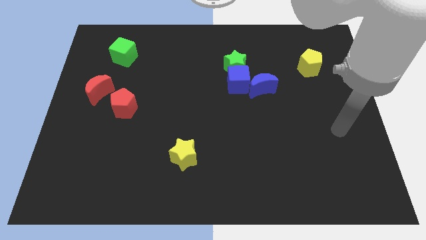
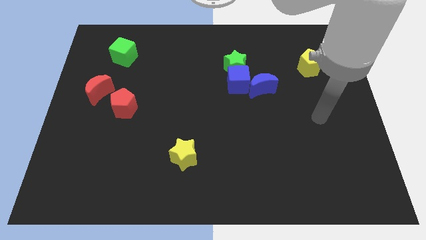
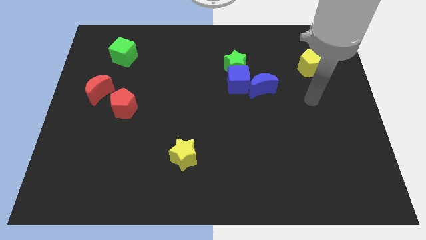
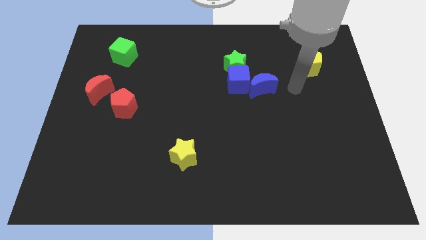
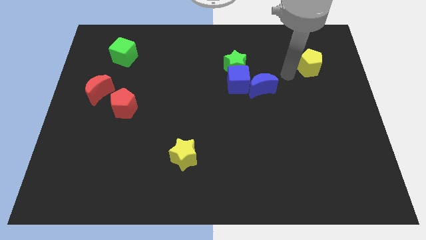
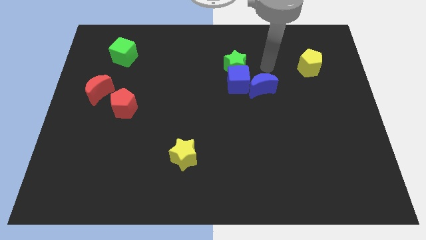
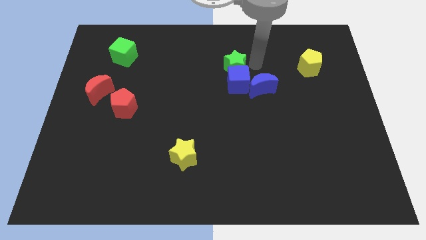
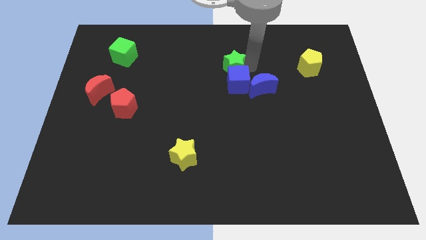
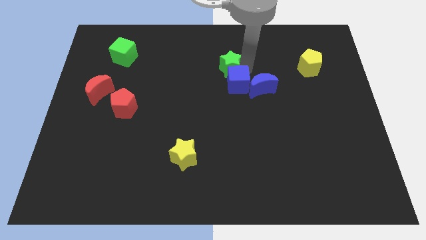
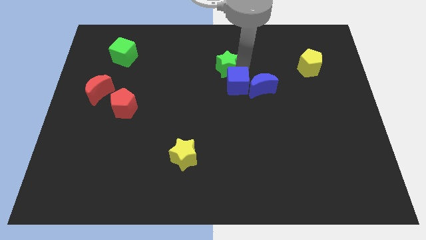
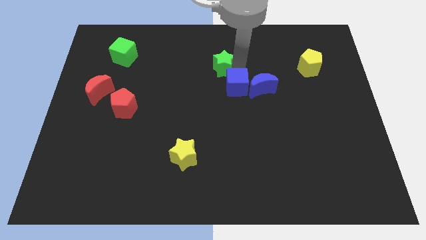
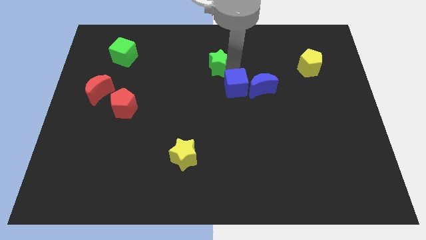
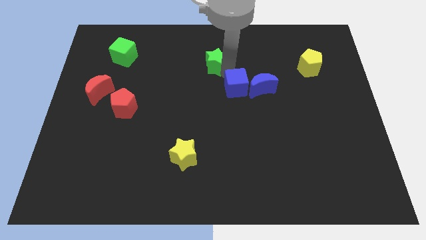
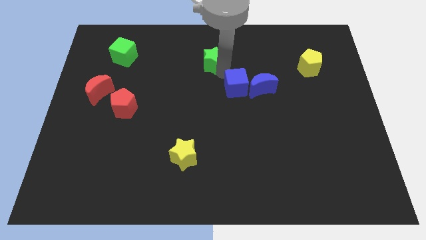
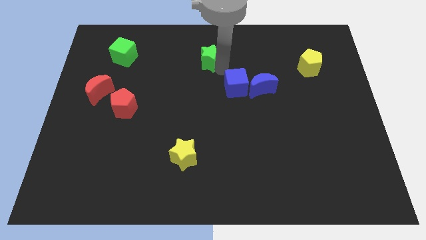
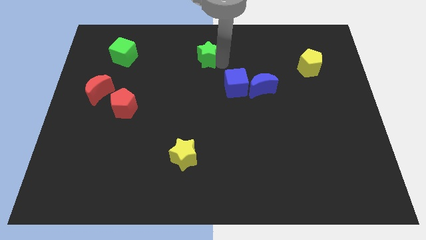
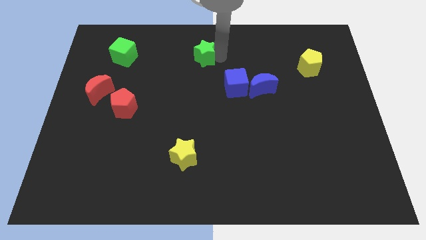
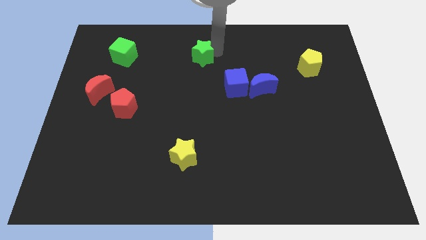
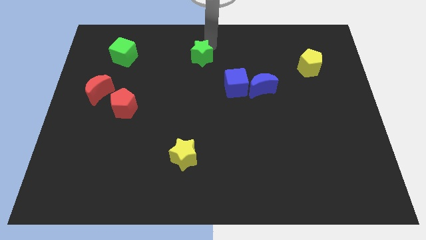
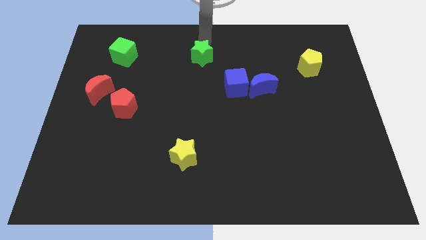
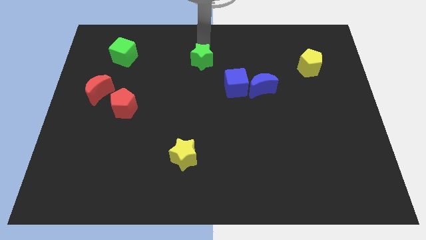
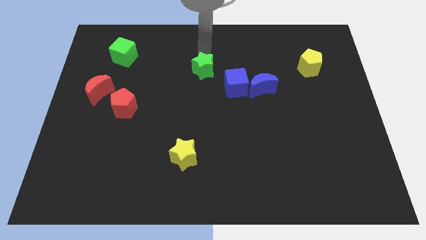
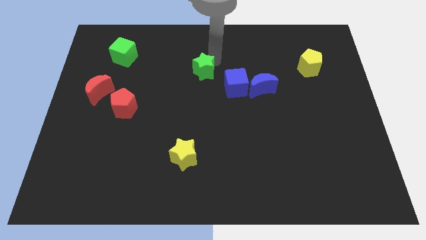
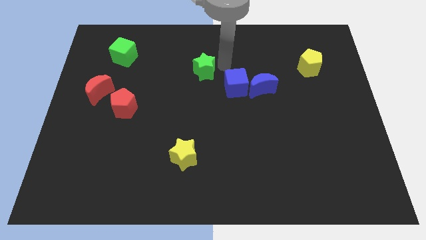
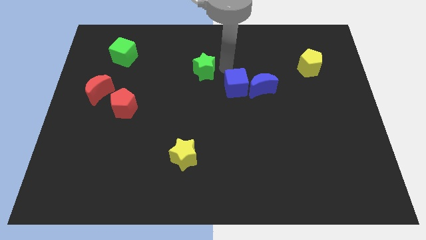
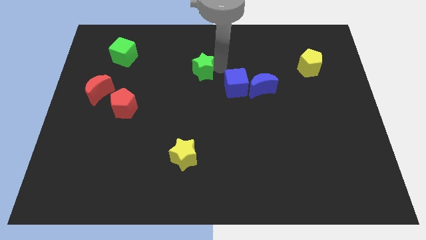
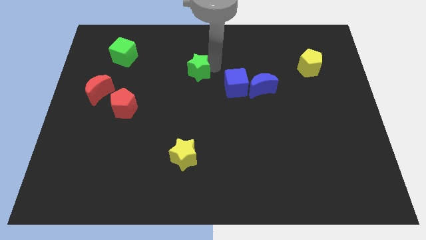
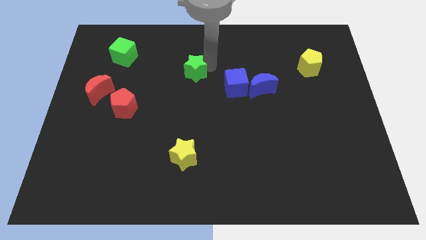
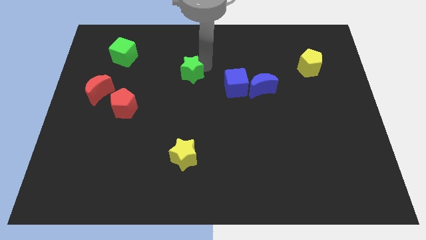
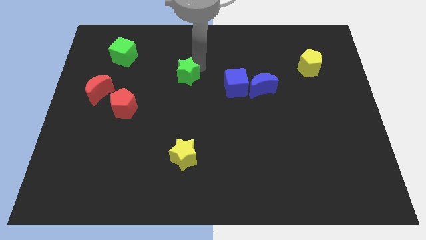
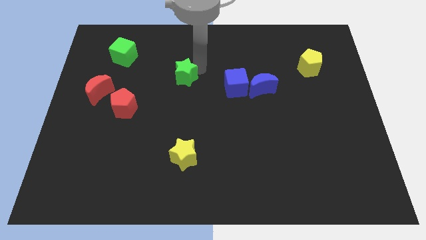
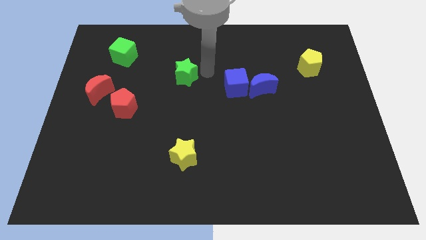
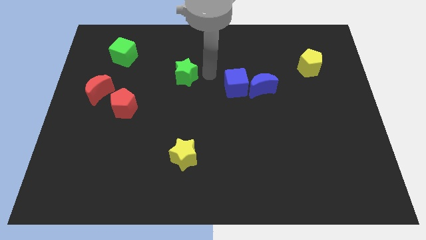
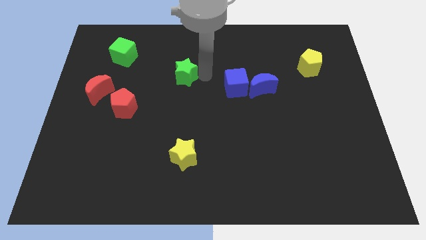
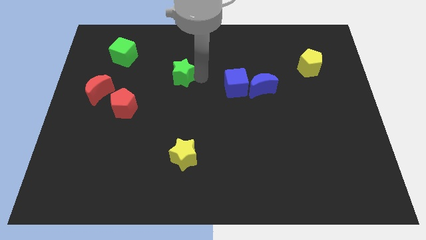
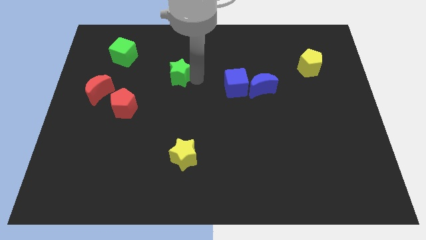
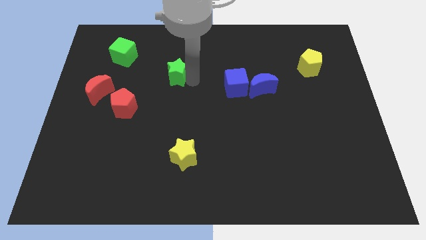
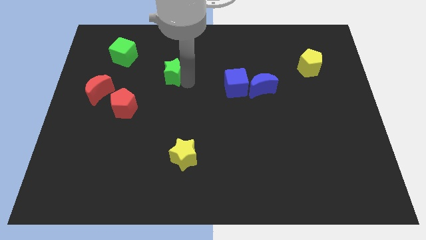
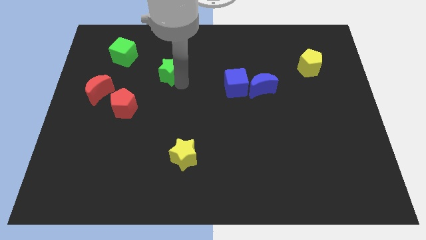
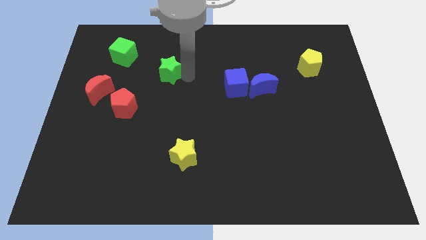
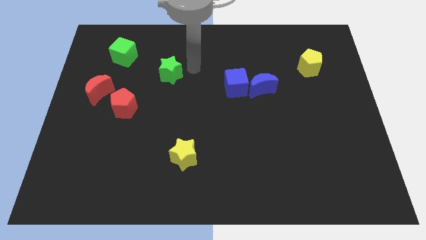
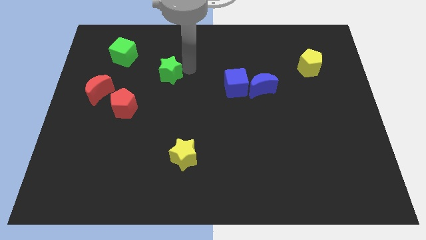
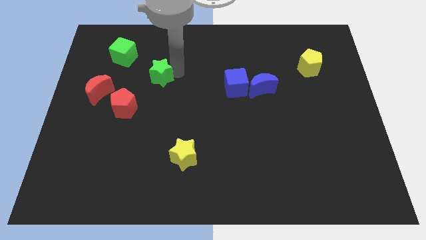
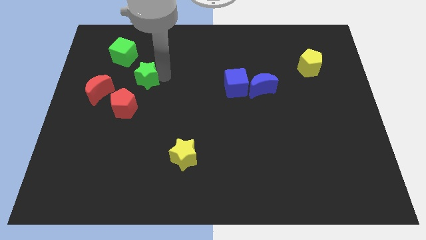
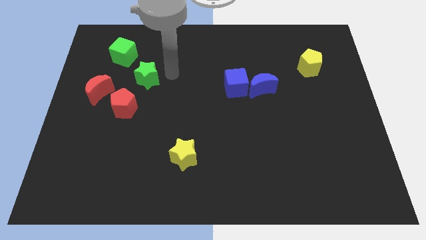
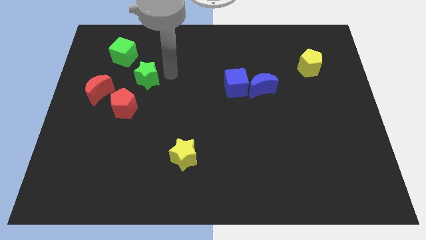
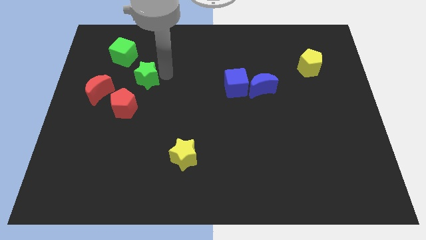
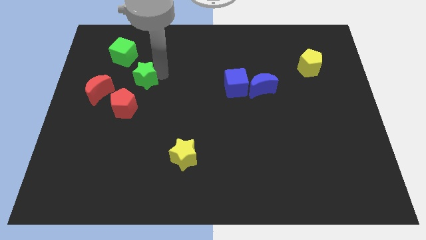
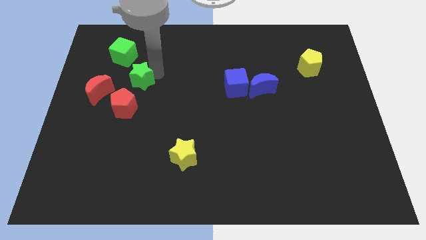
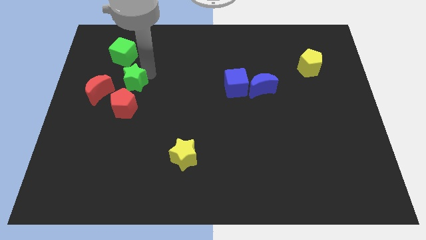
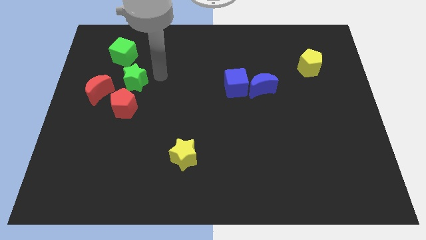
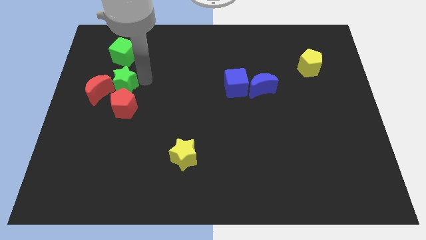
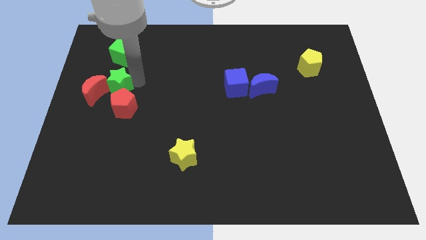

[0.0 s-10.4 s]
move the green star close to the red moon

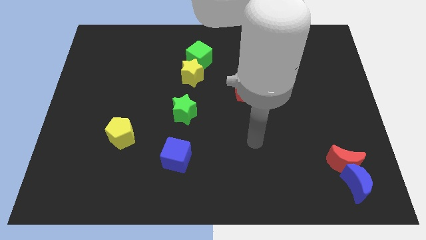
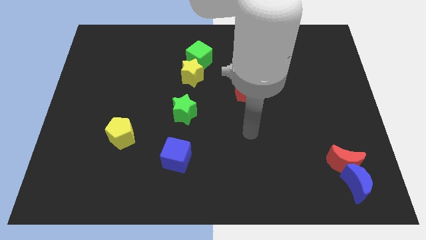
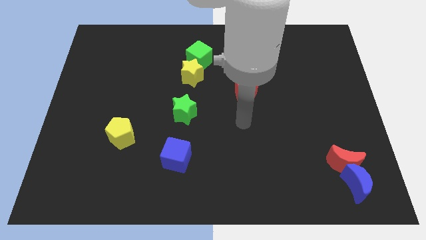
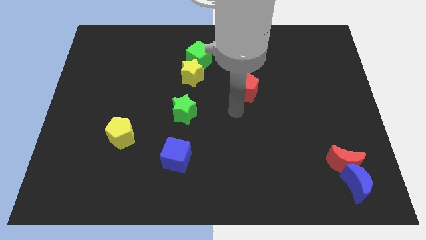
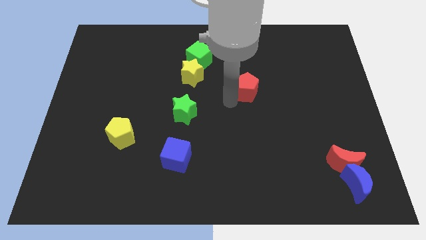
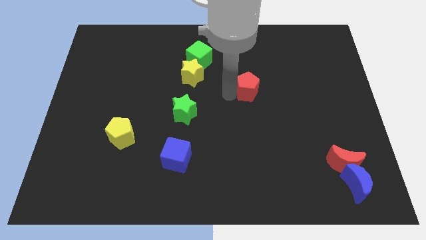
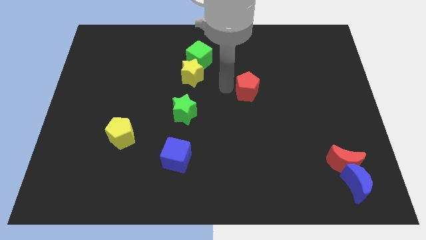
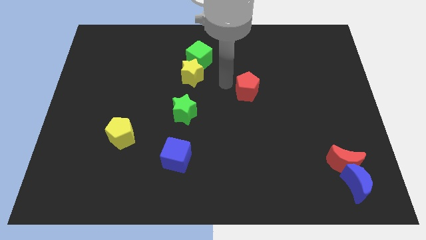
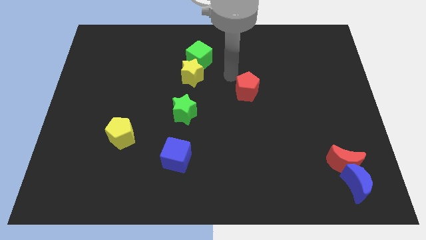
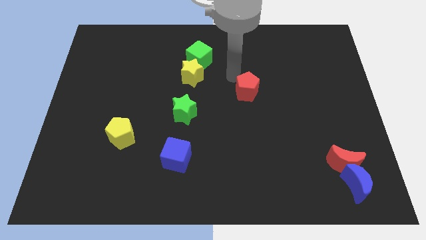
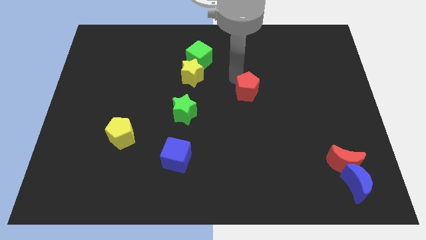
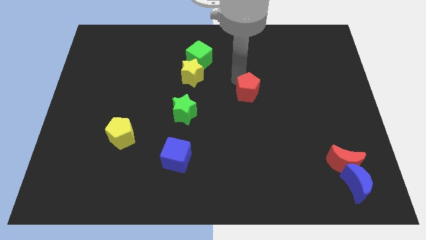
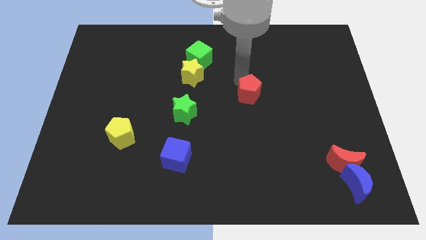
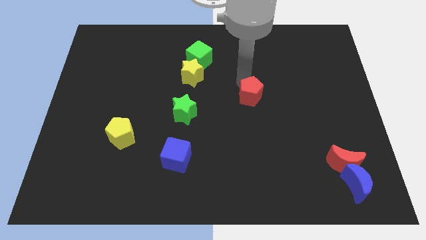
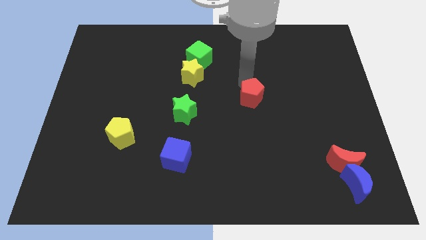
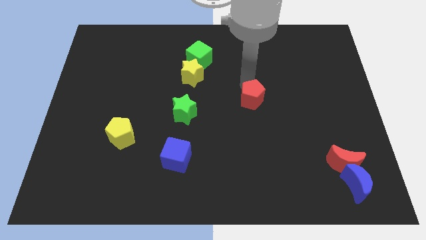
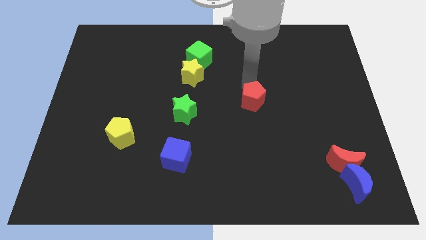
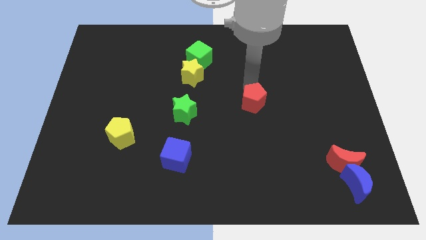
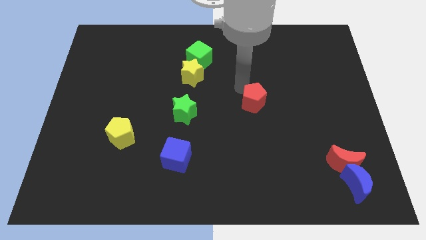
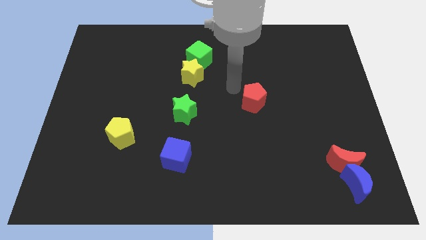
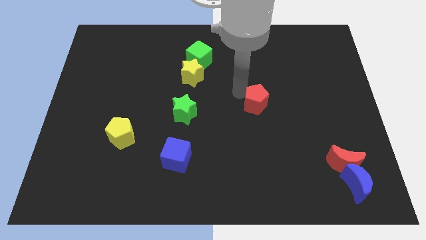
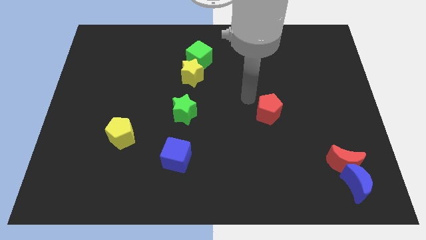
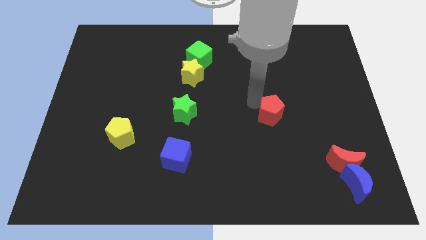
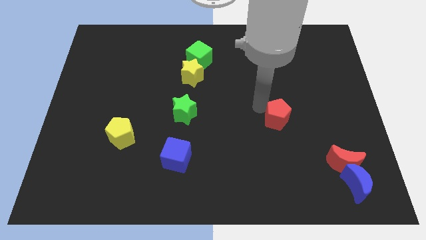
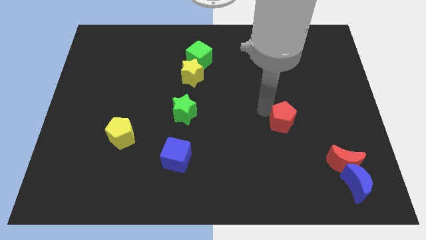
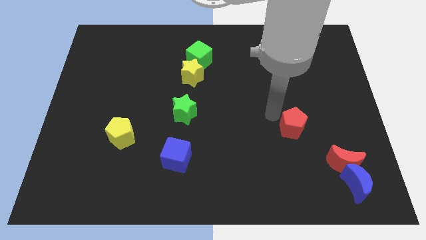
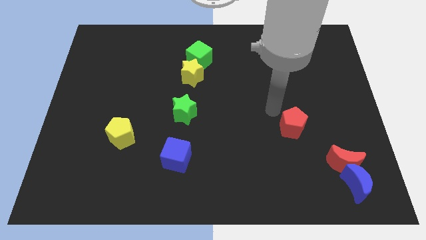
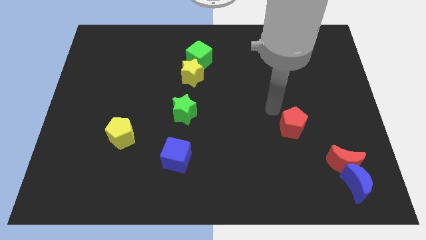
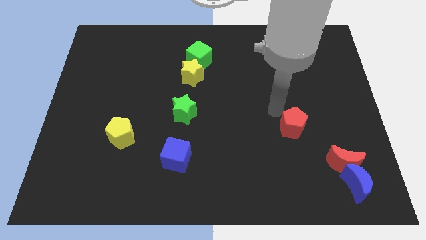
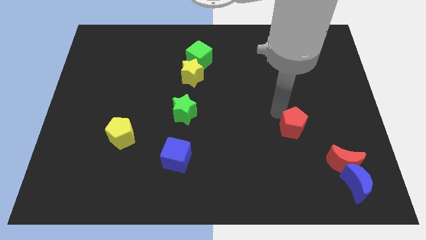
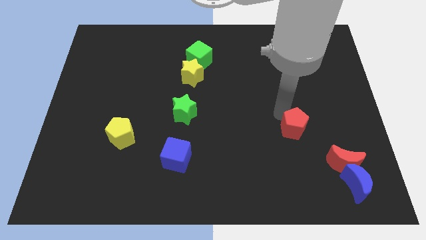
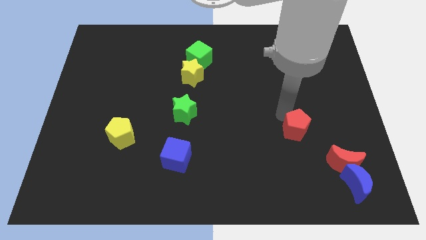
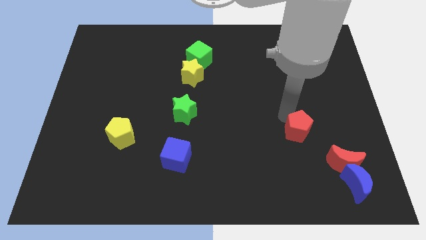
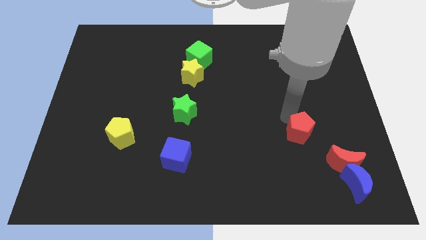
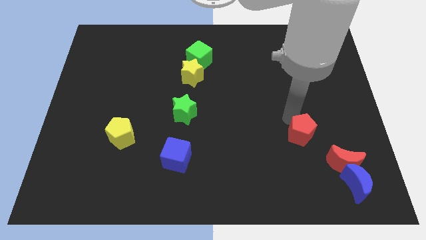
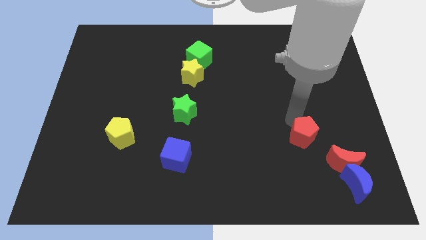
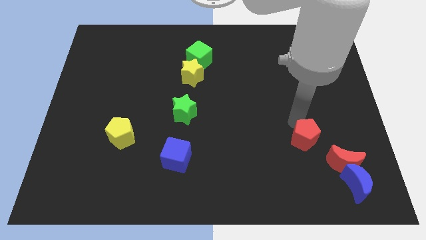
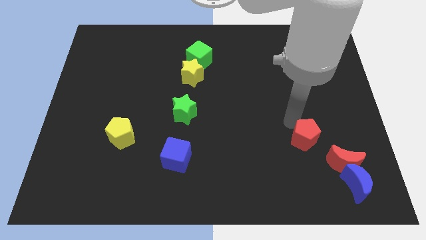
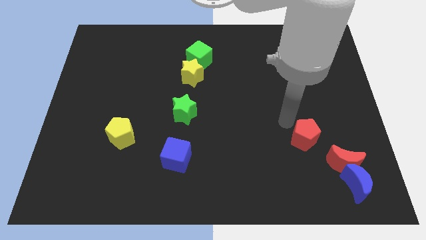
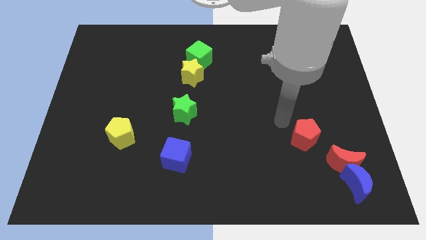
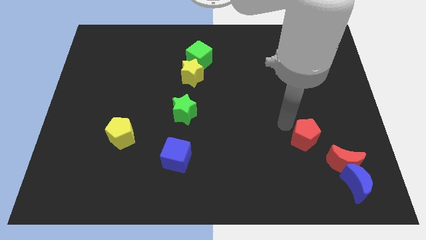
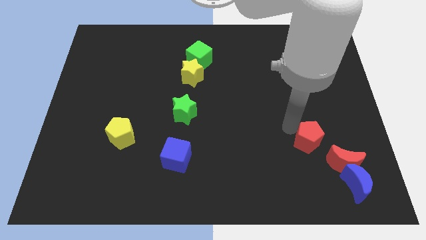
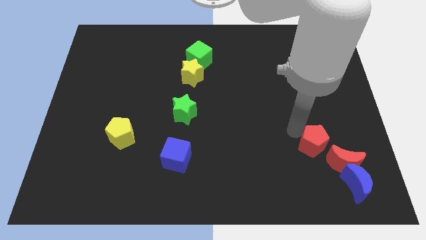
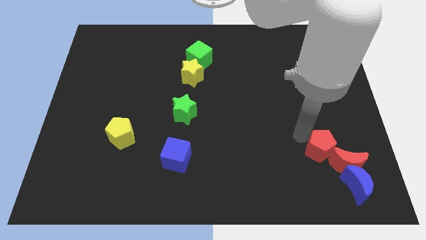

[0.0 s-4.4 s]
push the red pentagon towards the red moon
